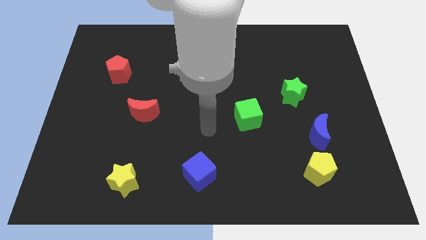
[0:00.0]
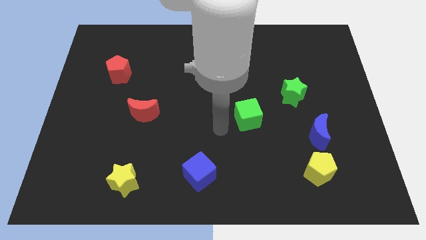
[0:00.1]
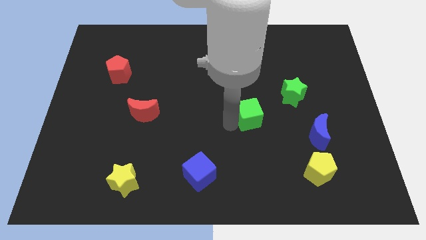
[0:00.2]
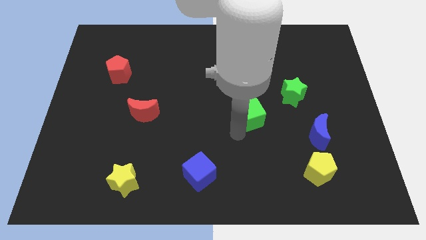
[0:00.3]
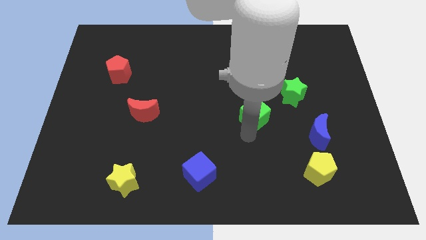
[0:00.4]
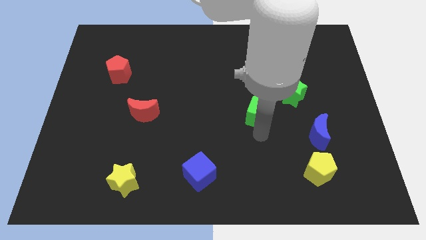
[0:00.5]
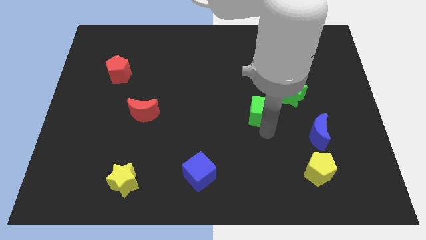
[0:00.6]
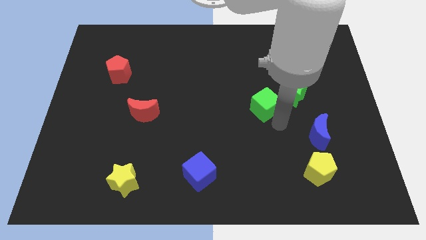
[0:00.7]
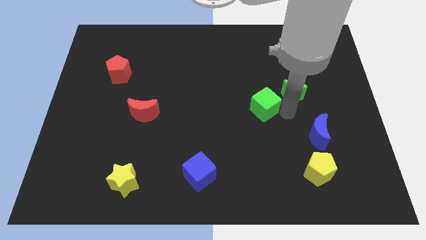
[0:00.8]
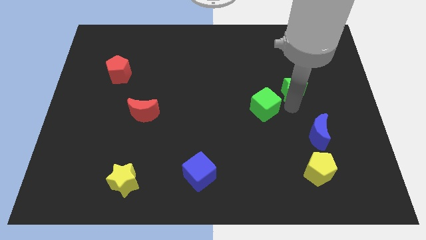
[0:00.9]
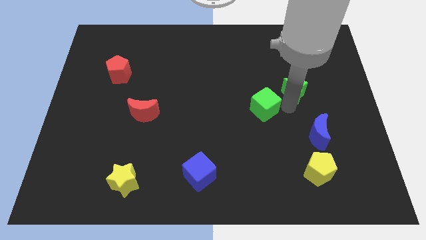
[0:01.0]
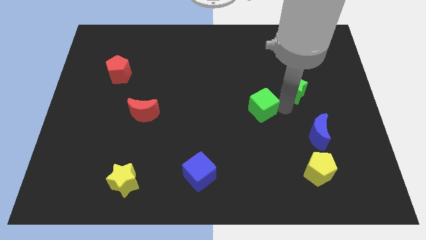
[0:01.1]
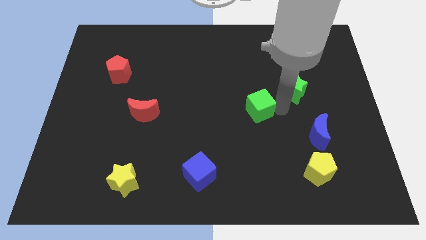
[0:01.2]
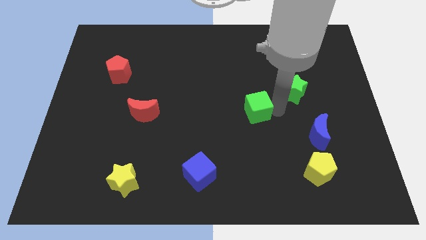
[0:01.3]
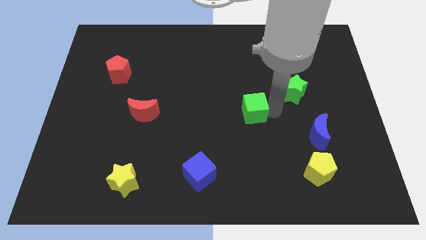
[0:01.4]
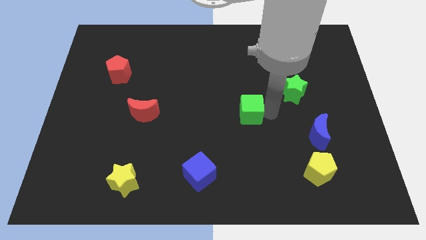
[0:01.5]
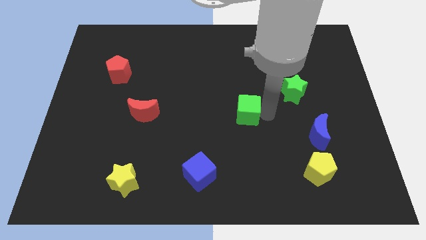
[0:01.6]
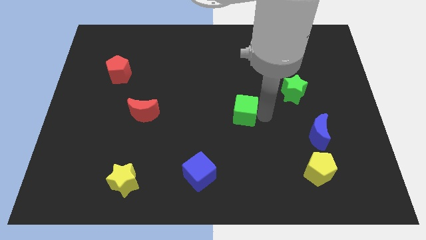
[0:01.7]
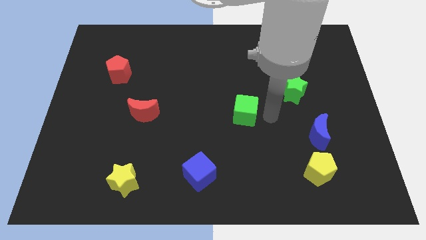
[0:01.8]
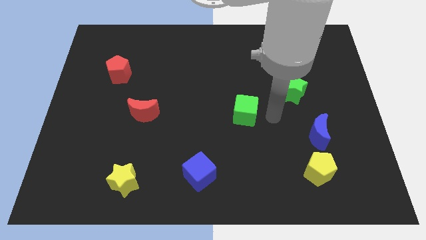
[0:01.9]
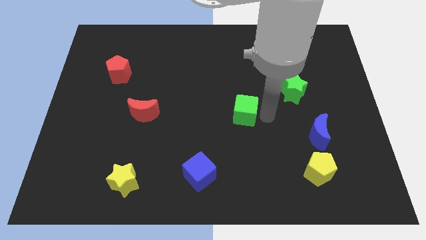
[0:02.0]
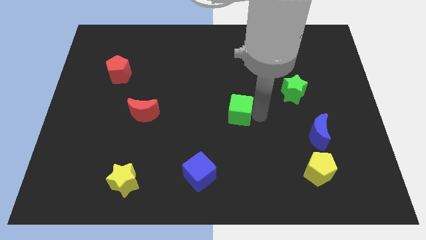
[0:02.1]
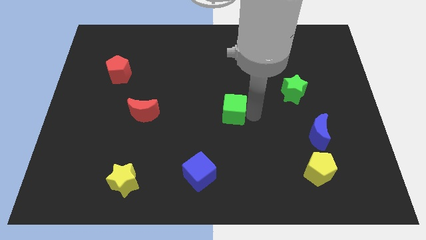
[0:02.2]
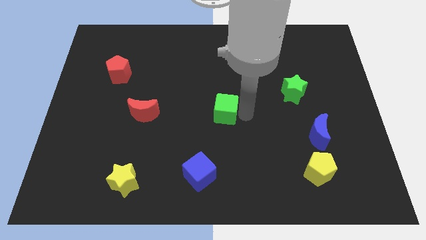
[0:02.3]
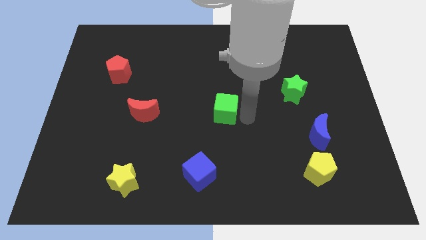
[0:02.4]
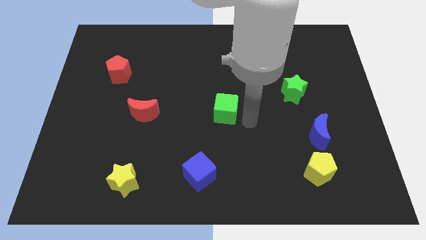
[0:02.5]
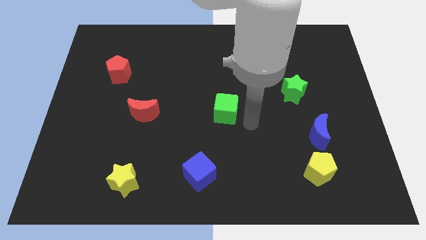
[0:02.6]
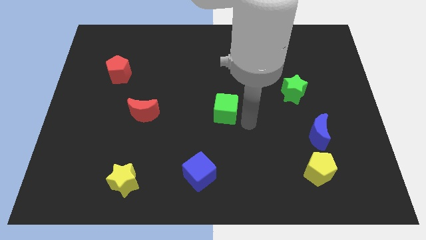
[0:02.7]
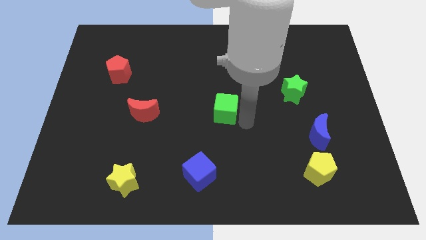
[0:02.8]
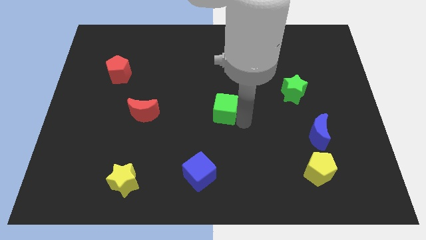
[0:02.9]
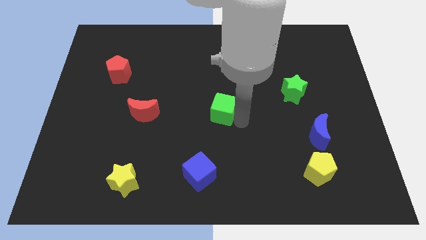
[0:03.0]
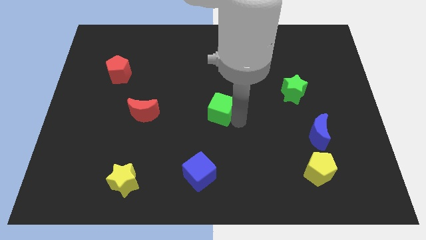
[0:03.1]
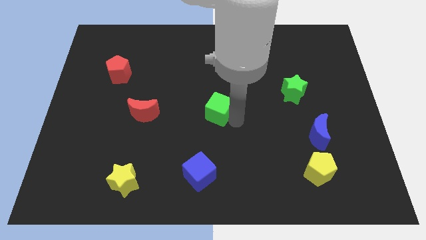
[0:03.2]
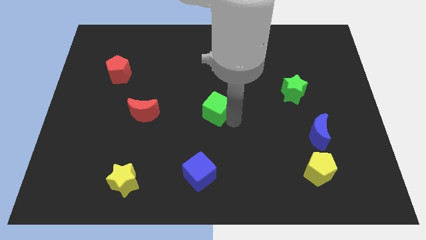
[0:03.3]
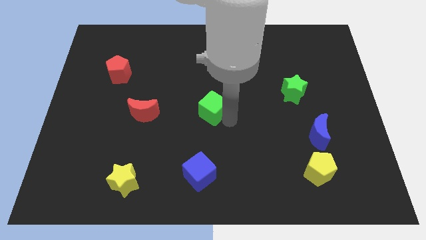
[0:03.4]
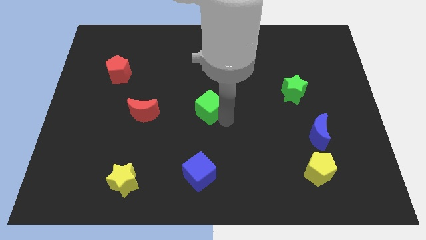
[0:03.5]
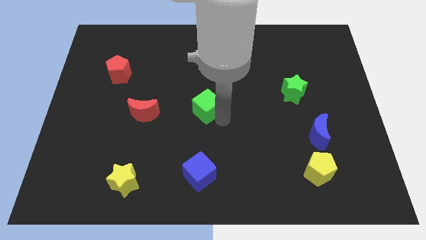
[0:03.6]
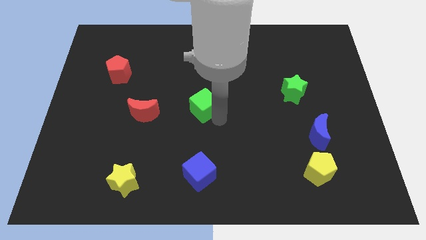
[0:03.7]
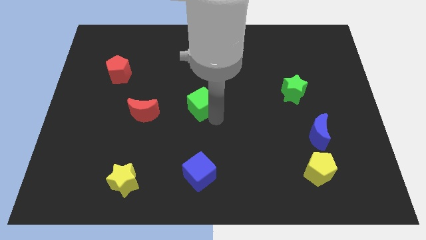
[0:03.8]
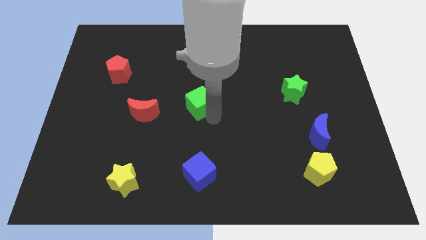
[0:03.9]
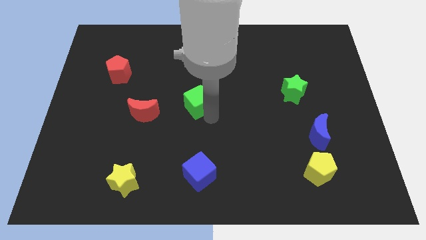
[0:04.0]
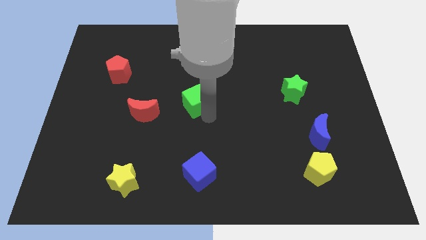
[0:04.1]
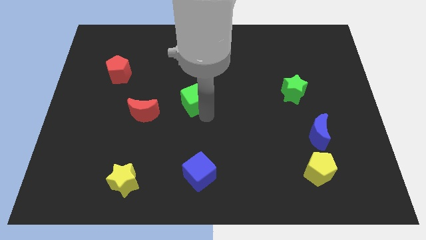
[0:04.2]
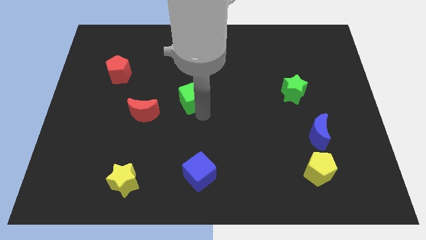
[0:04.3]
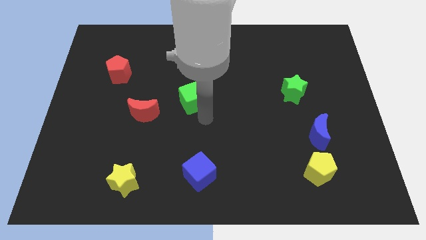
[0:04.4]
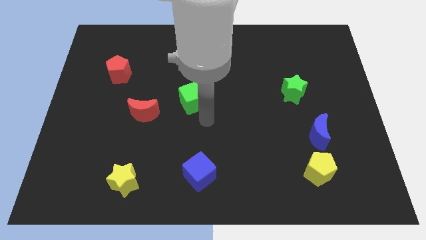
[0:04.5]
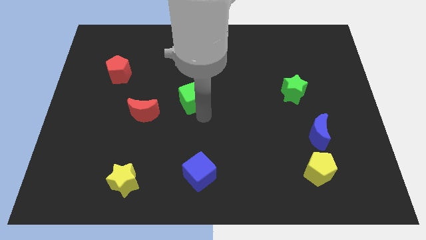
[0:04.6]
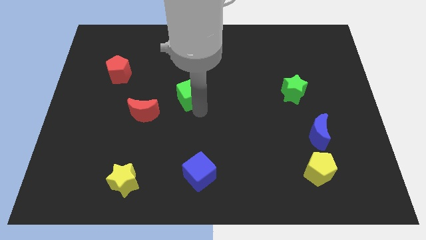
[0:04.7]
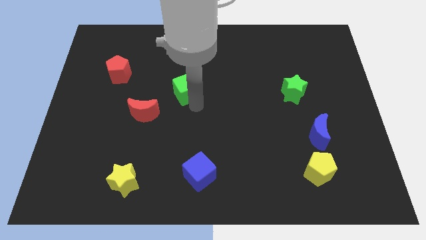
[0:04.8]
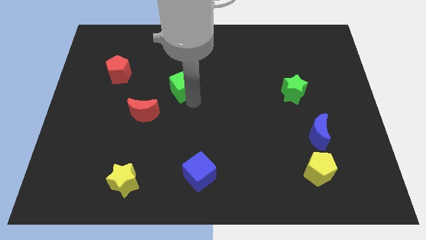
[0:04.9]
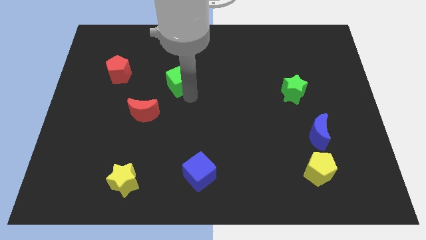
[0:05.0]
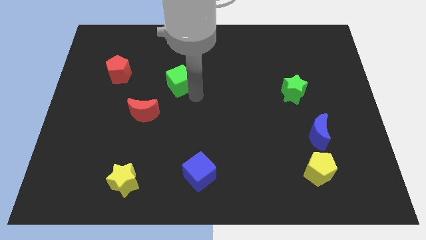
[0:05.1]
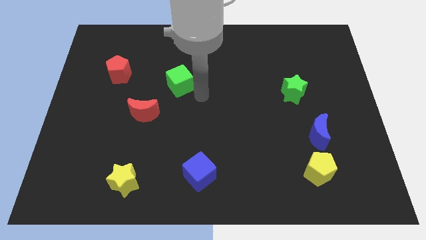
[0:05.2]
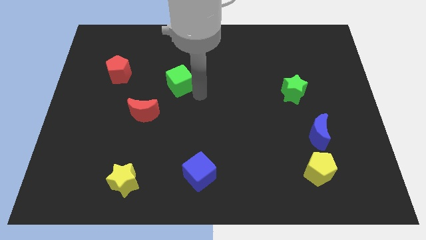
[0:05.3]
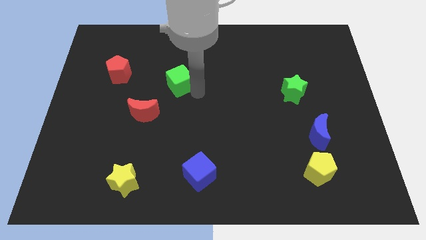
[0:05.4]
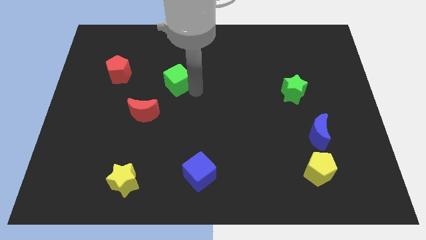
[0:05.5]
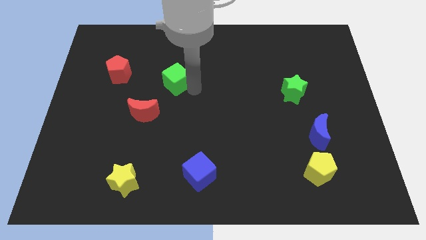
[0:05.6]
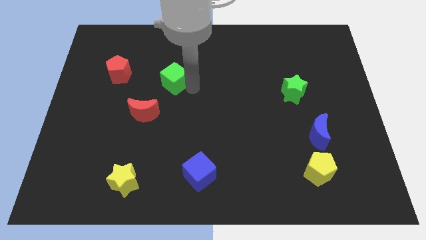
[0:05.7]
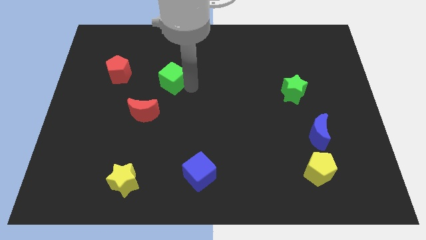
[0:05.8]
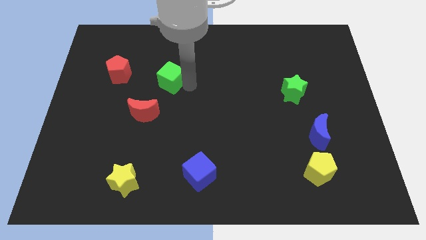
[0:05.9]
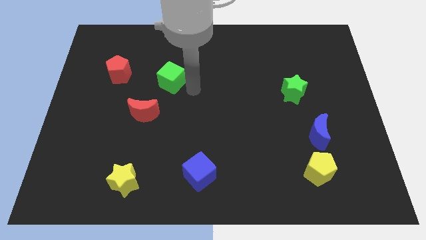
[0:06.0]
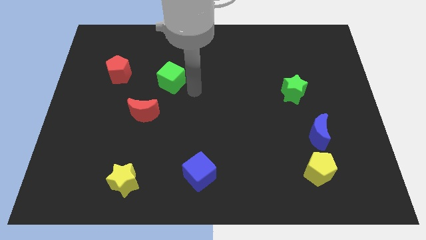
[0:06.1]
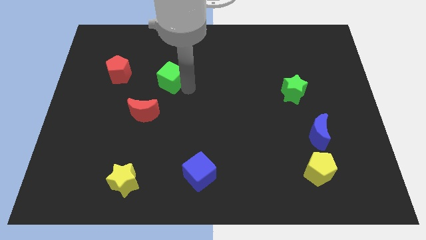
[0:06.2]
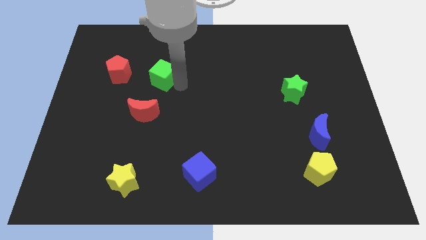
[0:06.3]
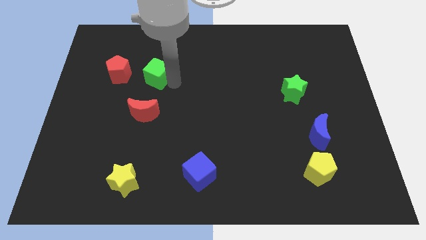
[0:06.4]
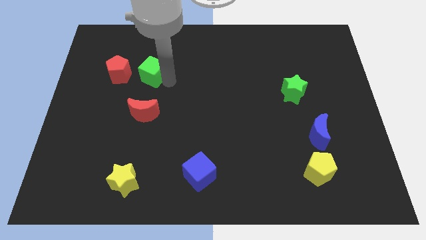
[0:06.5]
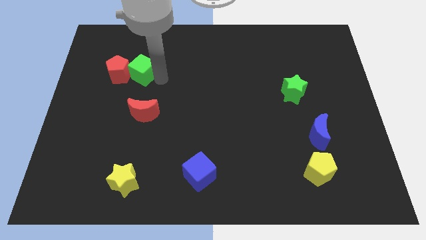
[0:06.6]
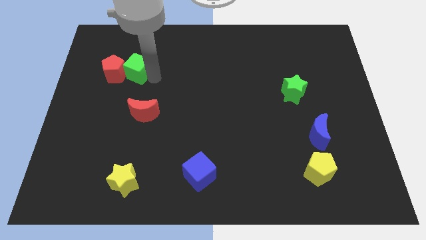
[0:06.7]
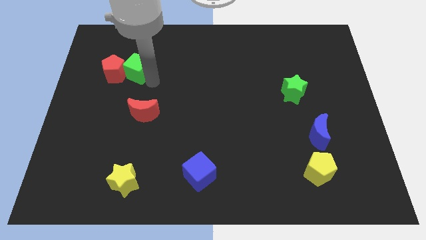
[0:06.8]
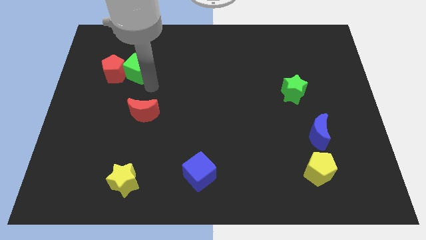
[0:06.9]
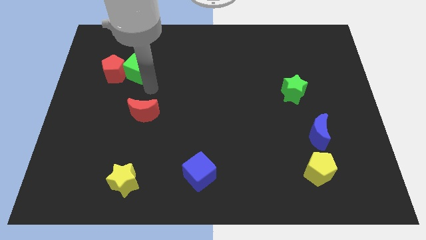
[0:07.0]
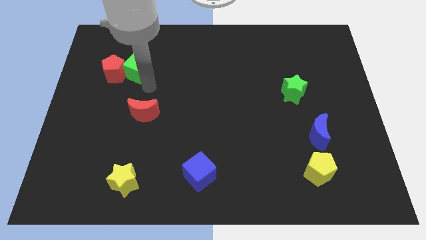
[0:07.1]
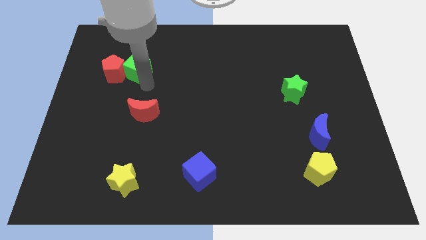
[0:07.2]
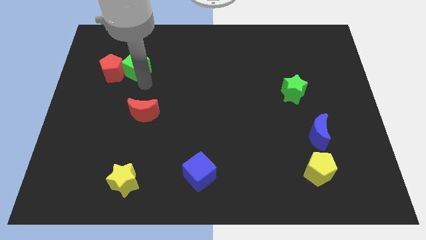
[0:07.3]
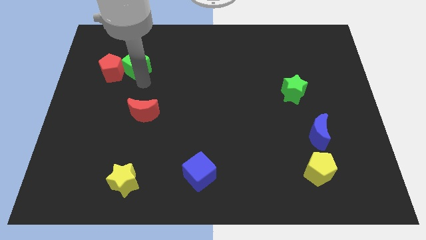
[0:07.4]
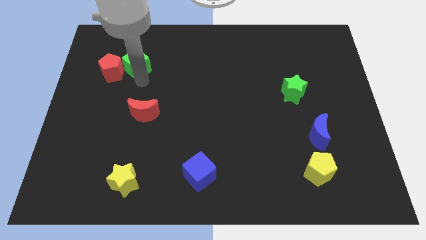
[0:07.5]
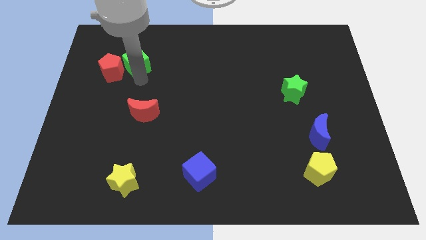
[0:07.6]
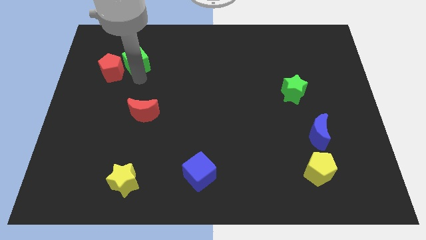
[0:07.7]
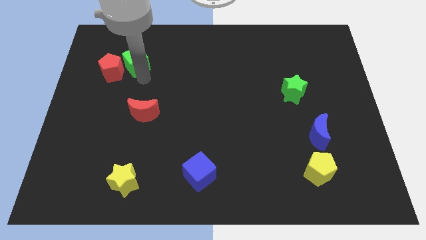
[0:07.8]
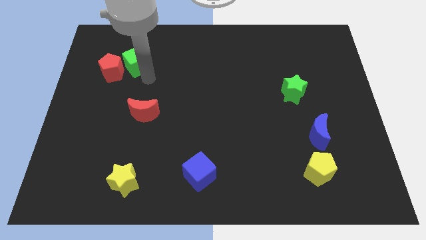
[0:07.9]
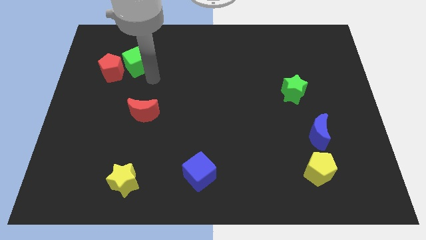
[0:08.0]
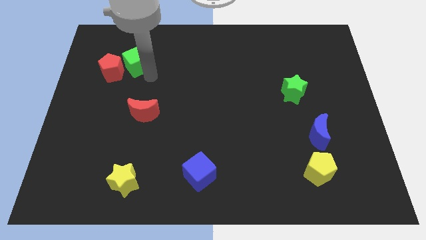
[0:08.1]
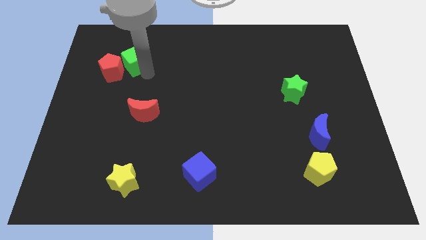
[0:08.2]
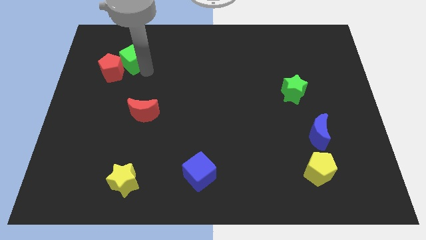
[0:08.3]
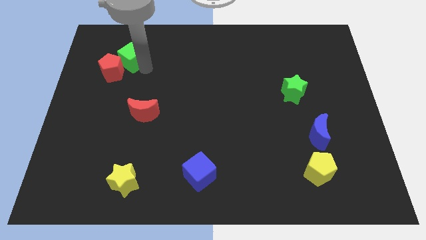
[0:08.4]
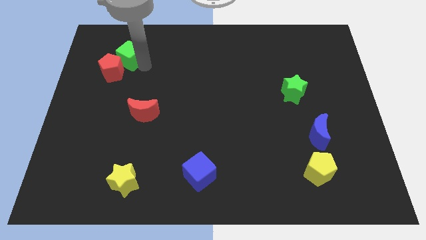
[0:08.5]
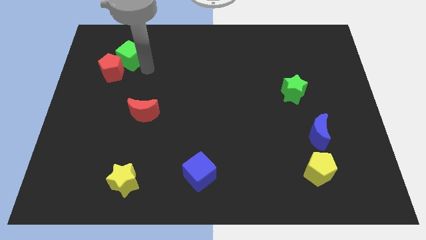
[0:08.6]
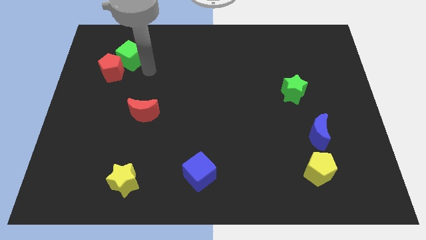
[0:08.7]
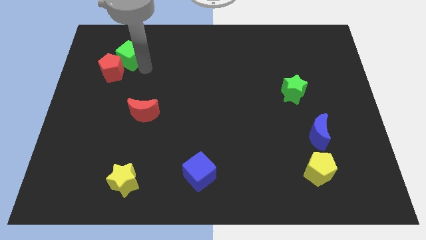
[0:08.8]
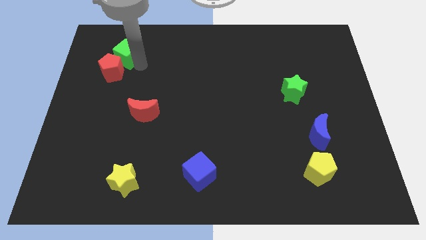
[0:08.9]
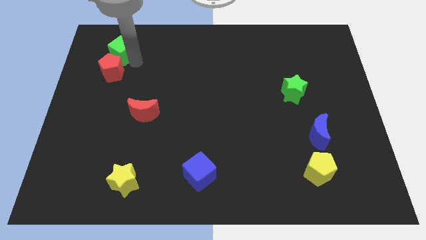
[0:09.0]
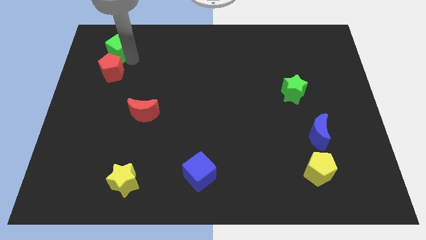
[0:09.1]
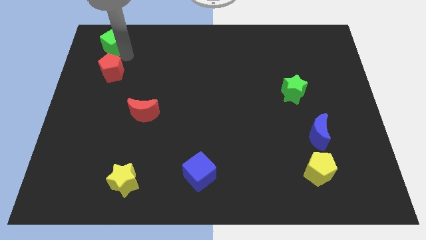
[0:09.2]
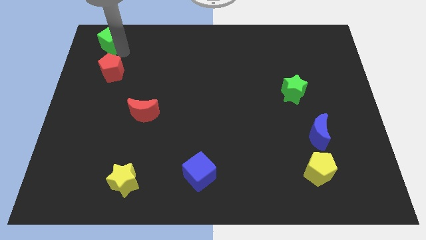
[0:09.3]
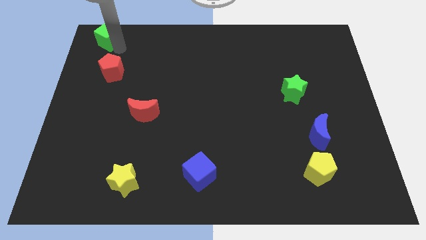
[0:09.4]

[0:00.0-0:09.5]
slide the green cube to the top left corner
